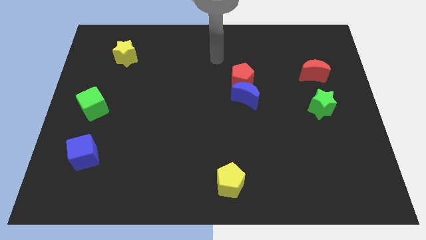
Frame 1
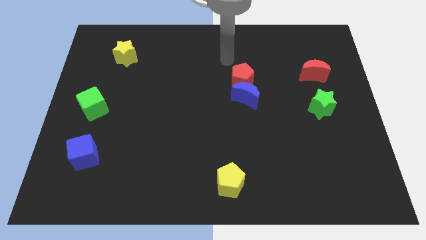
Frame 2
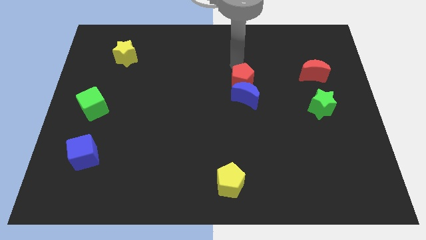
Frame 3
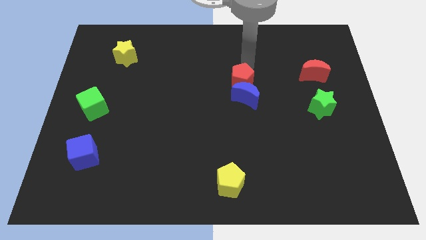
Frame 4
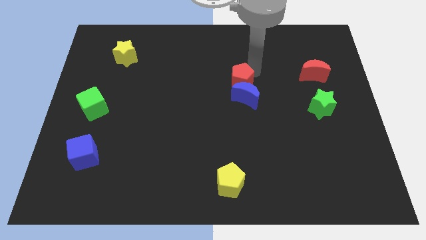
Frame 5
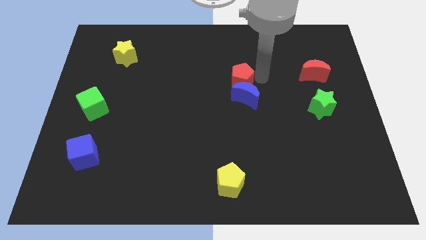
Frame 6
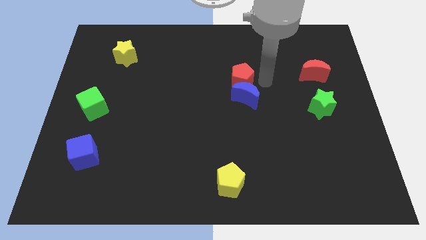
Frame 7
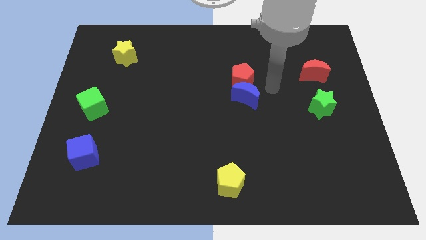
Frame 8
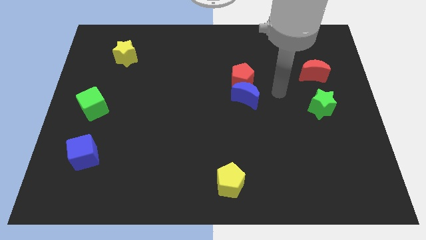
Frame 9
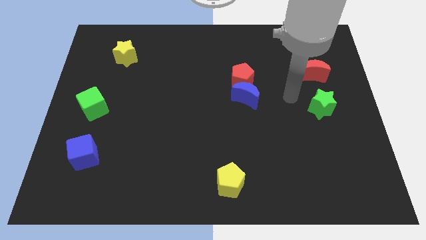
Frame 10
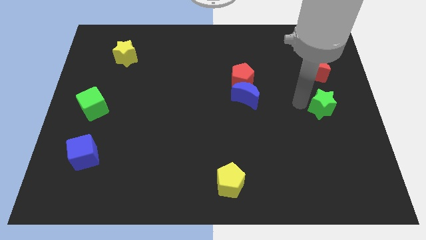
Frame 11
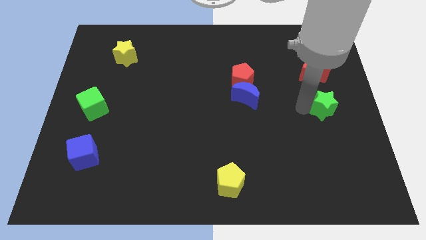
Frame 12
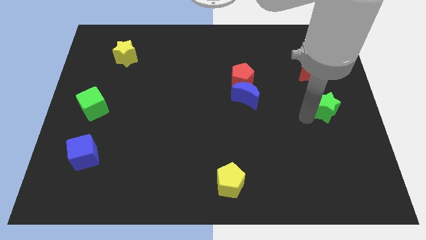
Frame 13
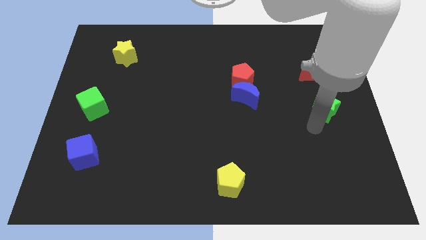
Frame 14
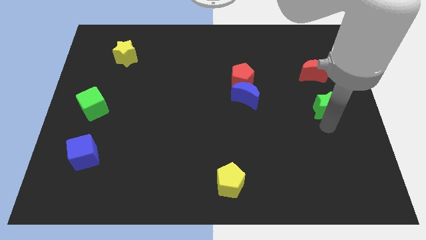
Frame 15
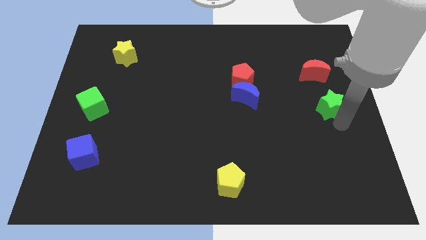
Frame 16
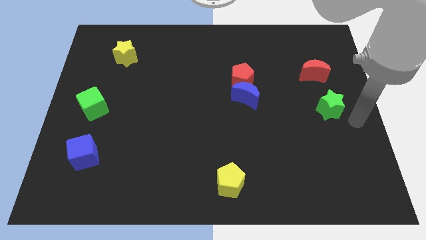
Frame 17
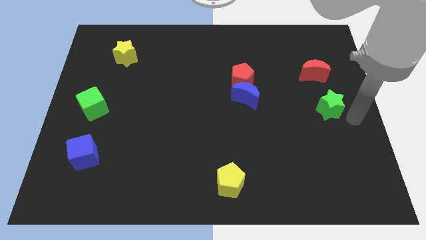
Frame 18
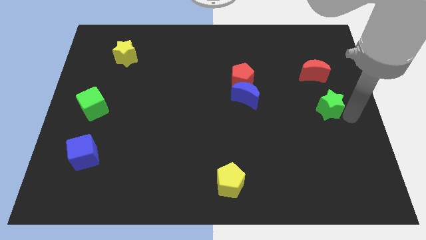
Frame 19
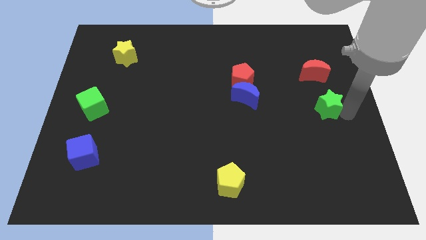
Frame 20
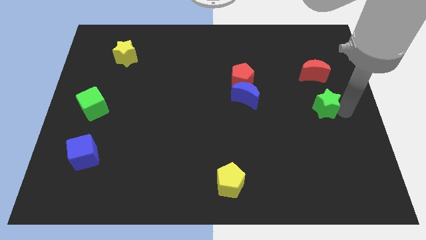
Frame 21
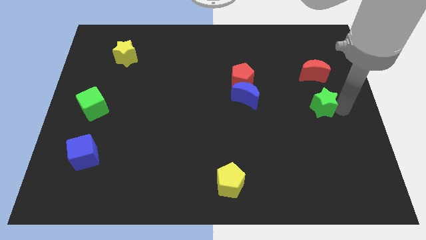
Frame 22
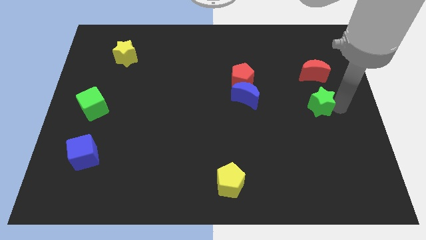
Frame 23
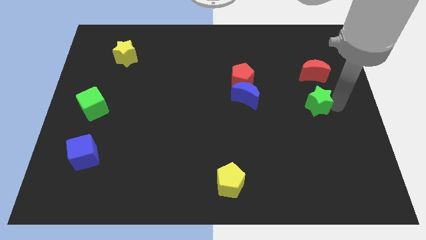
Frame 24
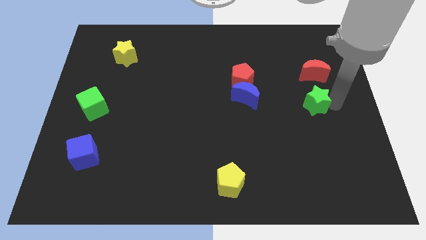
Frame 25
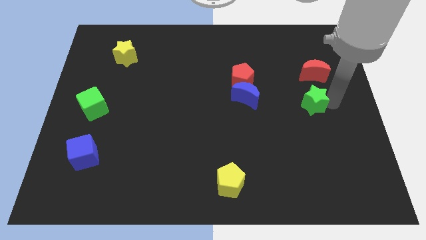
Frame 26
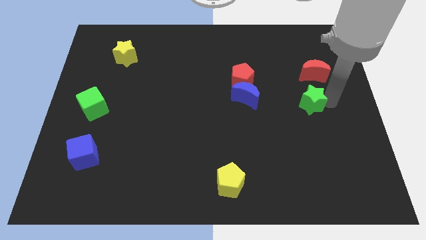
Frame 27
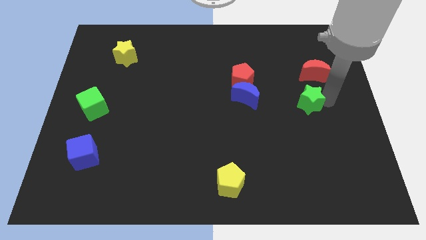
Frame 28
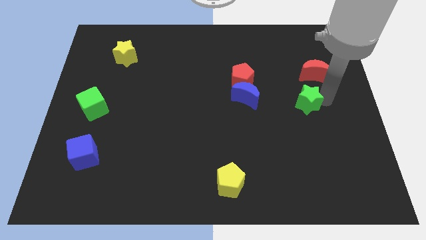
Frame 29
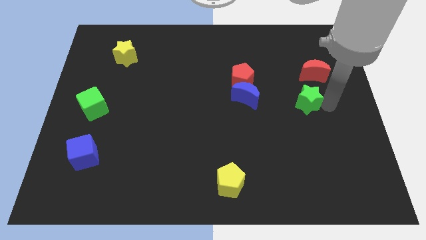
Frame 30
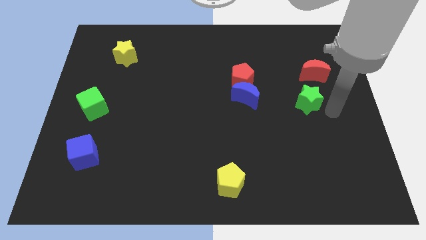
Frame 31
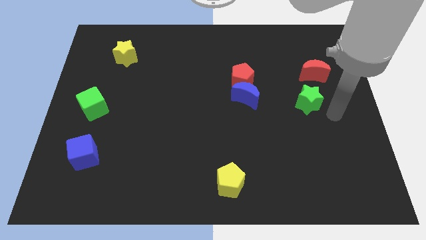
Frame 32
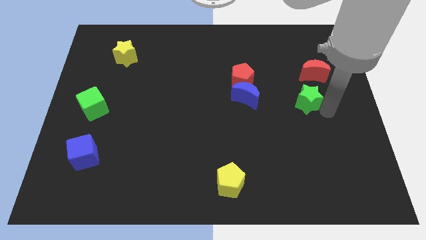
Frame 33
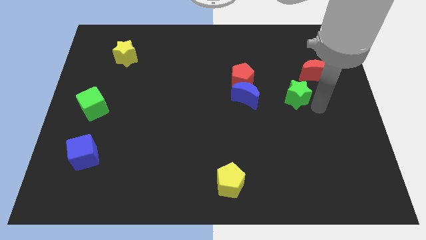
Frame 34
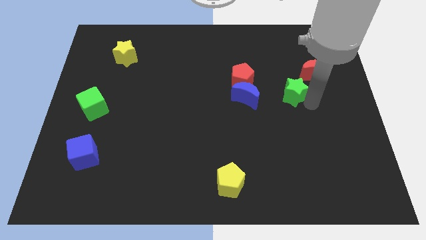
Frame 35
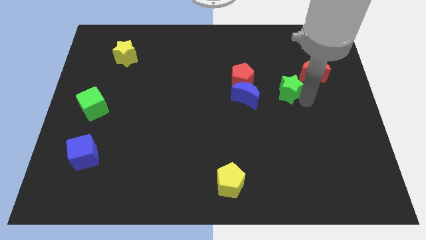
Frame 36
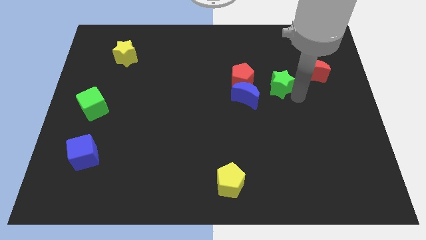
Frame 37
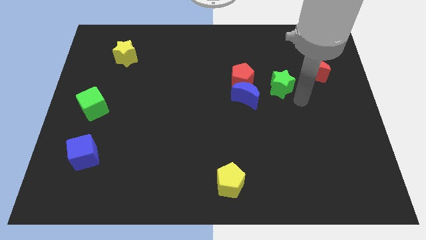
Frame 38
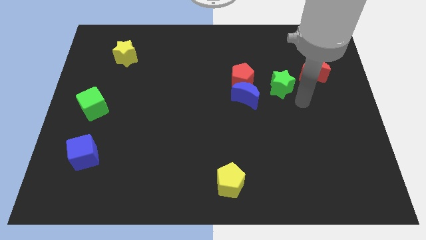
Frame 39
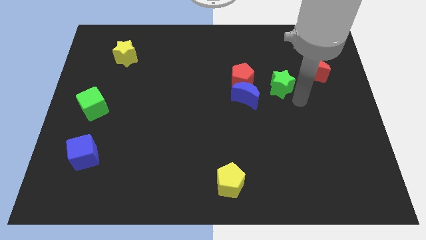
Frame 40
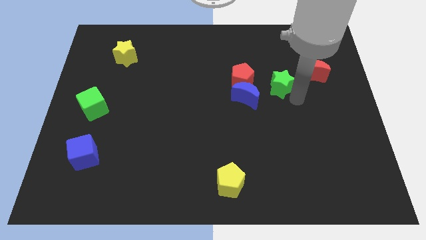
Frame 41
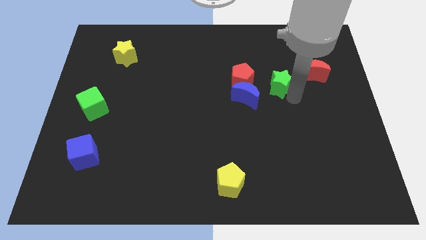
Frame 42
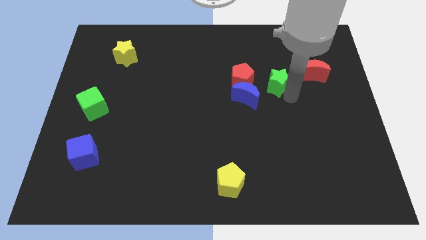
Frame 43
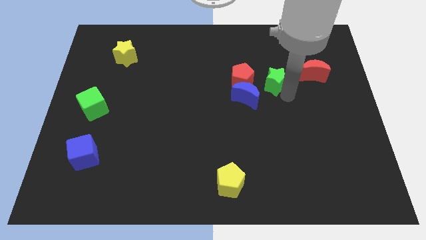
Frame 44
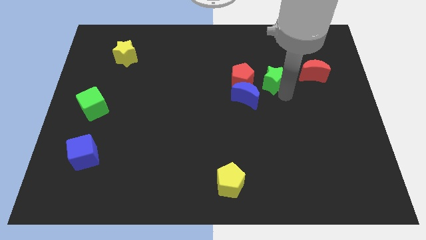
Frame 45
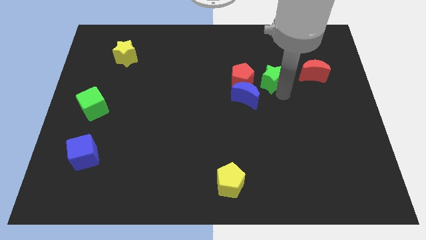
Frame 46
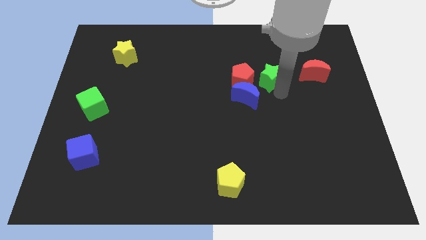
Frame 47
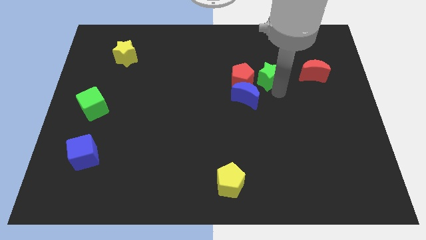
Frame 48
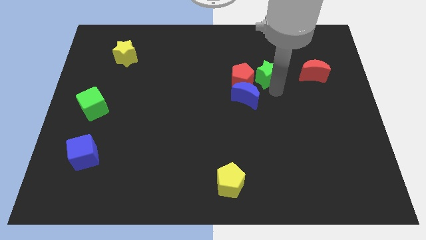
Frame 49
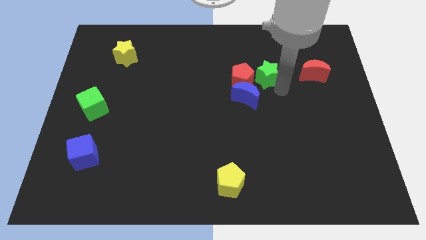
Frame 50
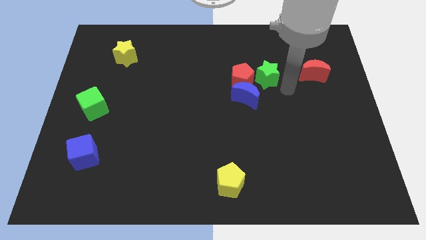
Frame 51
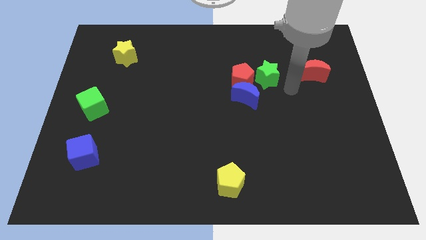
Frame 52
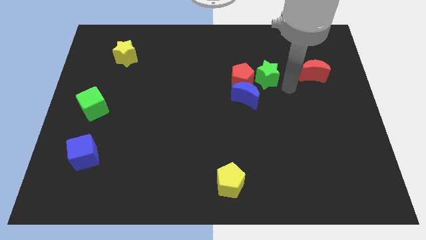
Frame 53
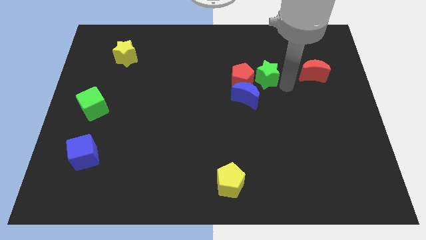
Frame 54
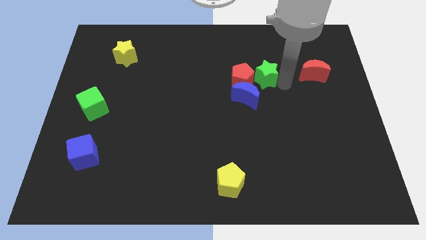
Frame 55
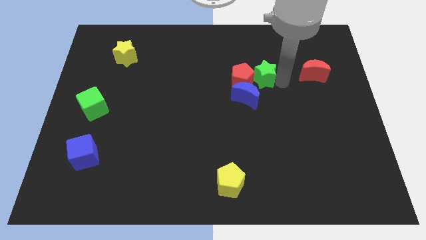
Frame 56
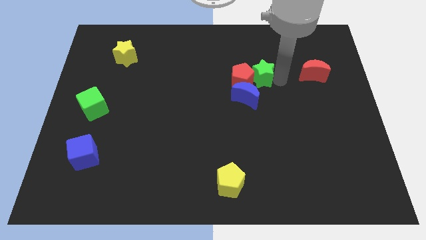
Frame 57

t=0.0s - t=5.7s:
slide the green star to the top of the blue moon

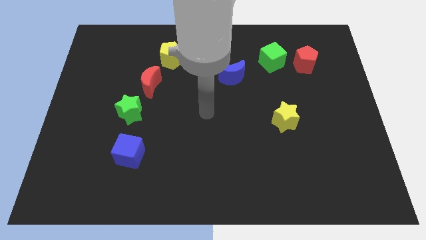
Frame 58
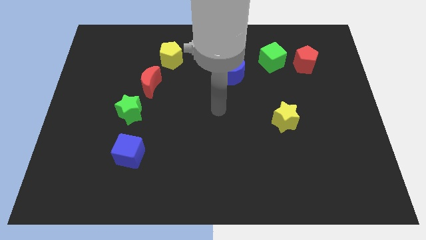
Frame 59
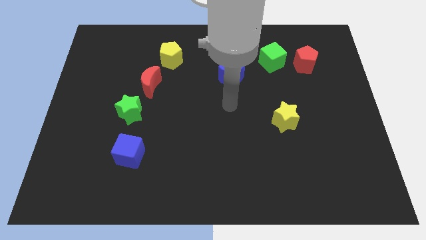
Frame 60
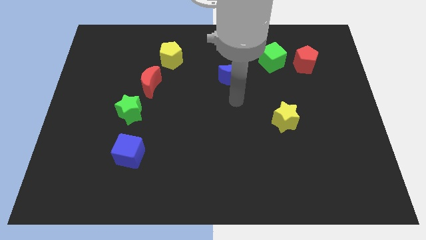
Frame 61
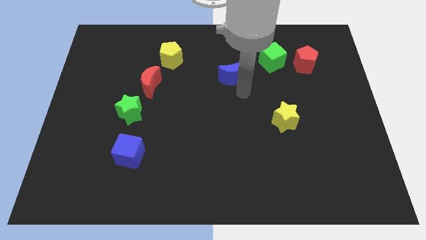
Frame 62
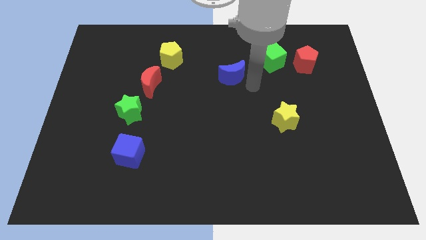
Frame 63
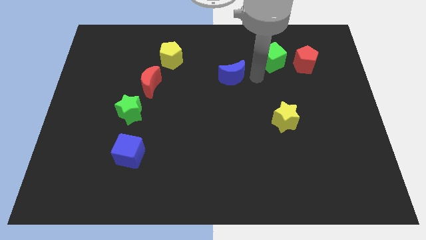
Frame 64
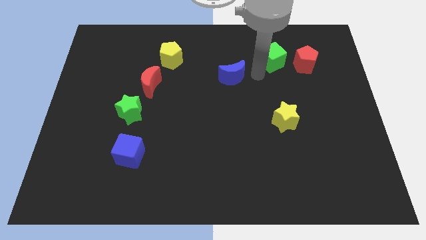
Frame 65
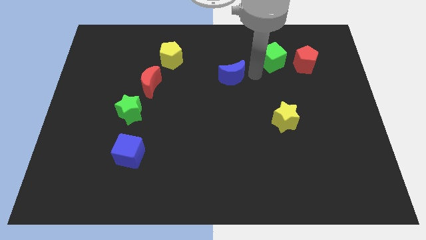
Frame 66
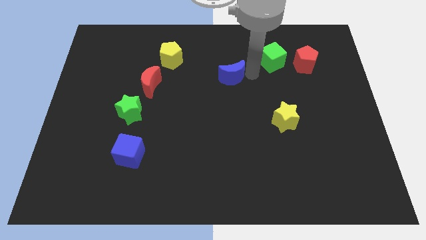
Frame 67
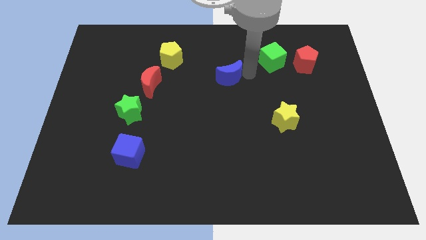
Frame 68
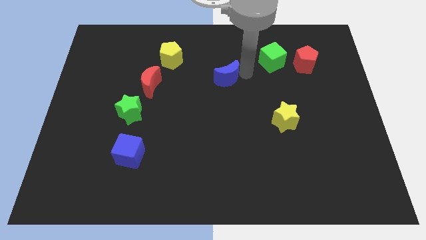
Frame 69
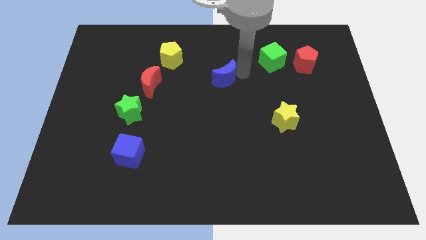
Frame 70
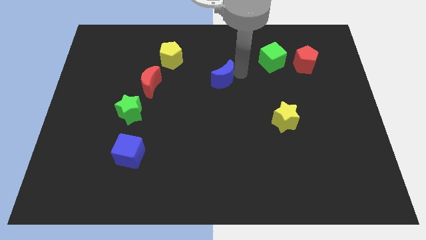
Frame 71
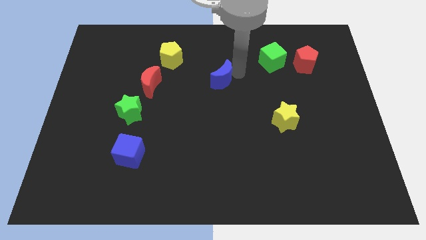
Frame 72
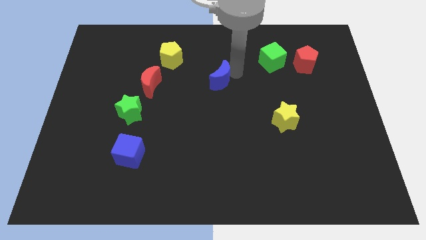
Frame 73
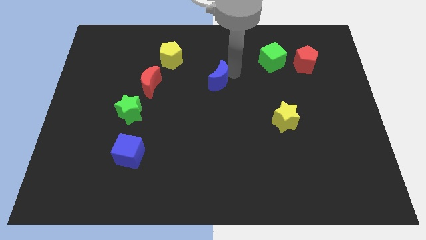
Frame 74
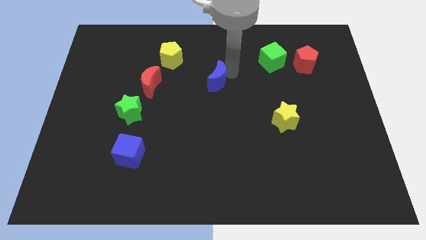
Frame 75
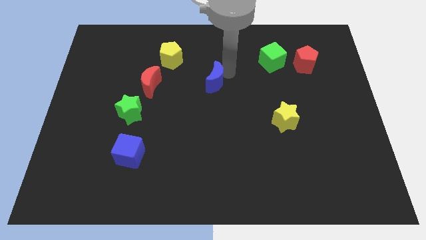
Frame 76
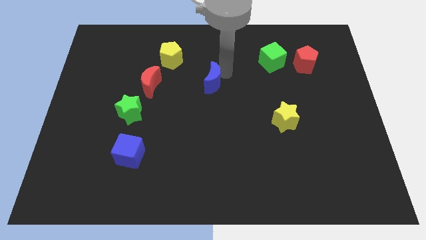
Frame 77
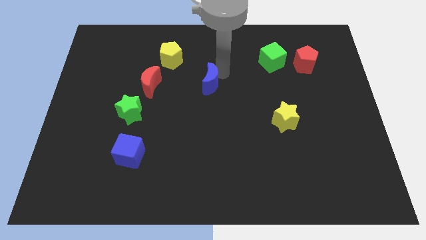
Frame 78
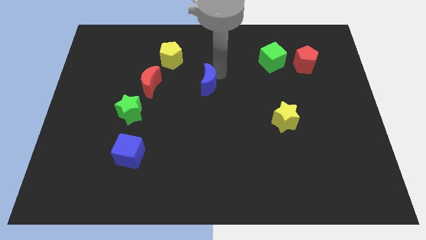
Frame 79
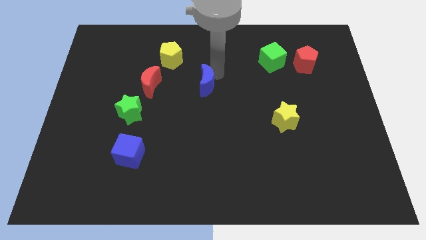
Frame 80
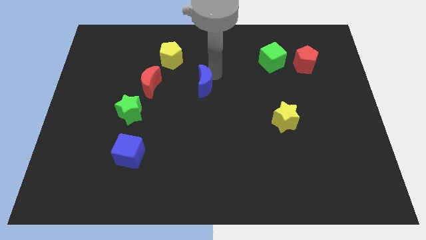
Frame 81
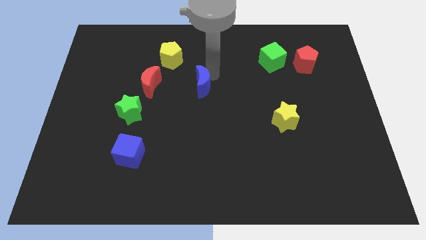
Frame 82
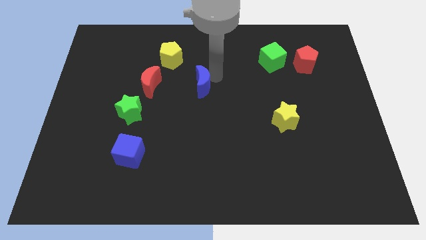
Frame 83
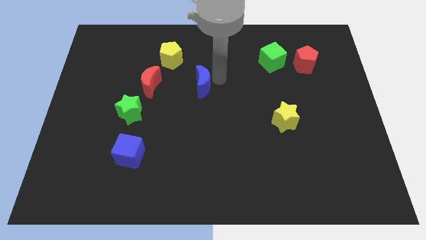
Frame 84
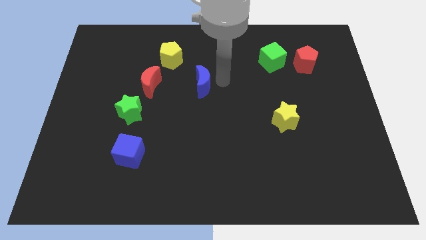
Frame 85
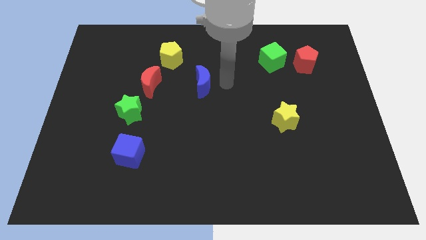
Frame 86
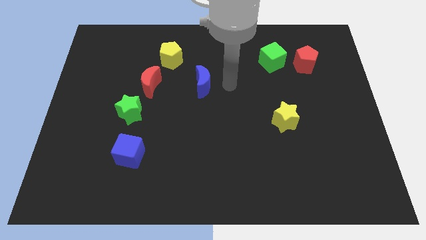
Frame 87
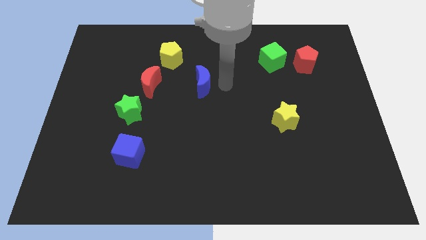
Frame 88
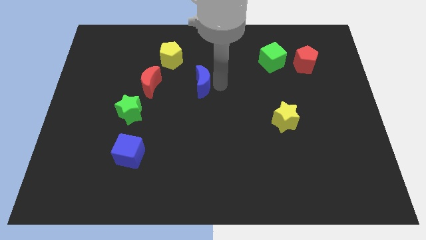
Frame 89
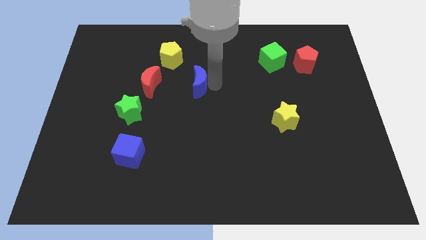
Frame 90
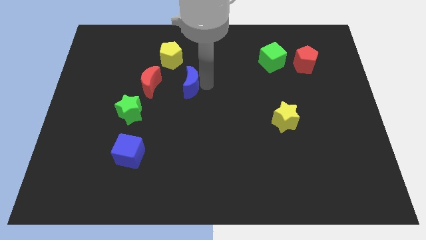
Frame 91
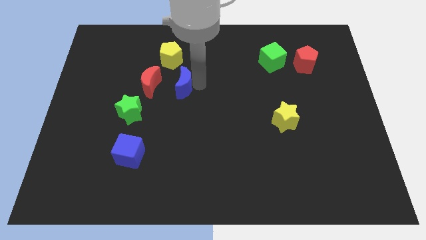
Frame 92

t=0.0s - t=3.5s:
slide the blue moon to the bottom of the yellow pentagon
